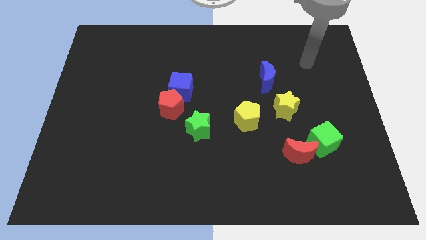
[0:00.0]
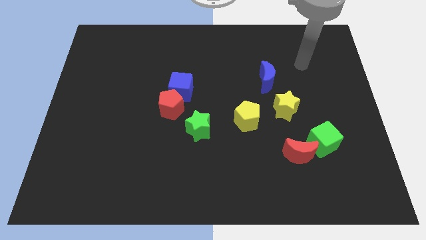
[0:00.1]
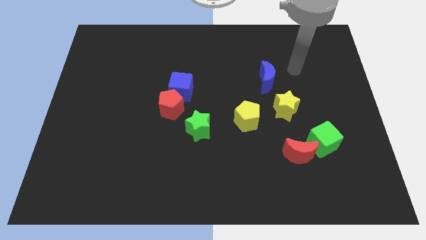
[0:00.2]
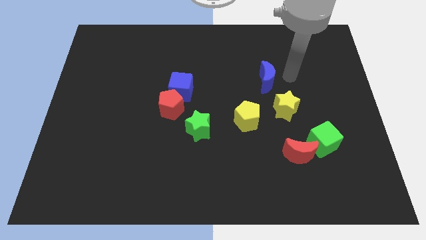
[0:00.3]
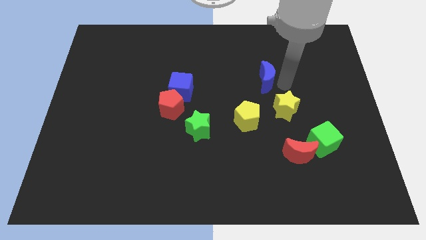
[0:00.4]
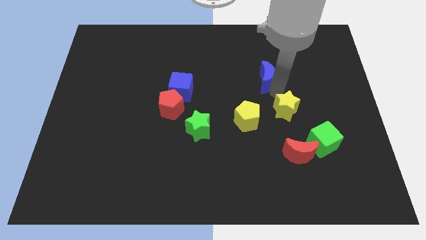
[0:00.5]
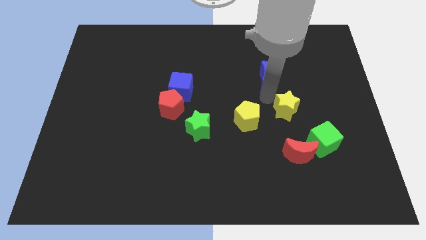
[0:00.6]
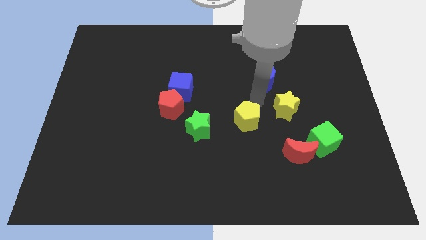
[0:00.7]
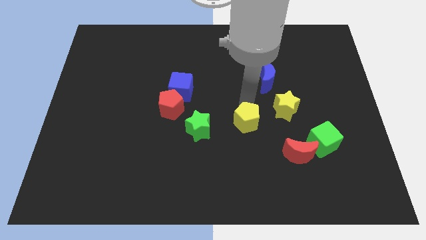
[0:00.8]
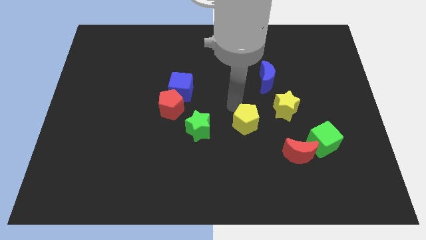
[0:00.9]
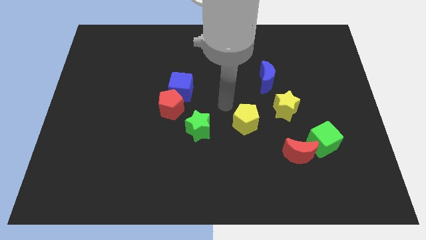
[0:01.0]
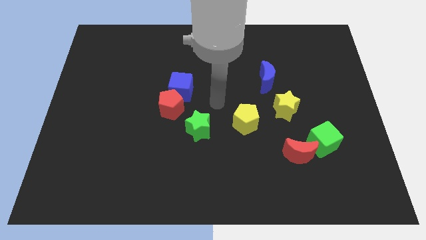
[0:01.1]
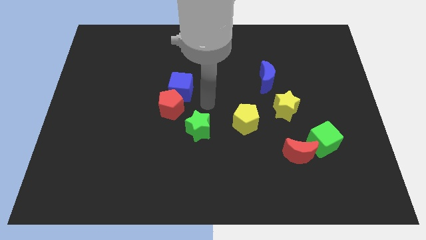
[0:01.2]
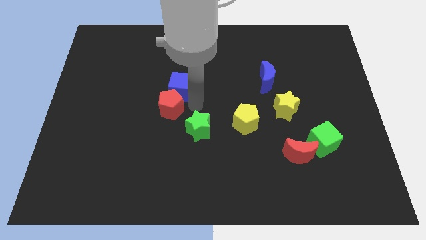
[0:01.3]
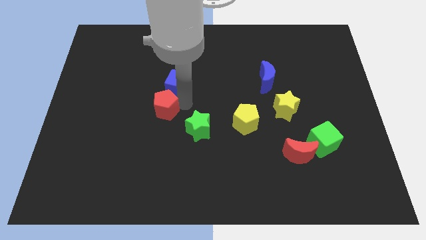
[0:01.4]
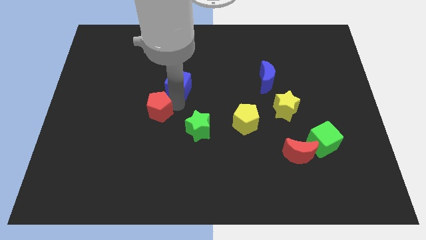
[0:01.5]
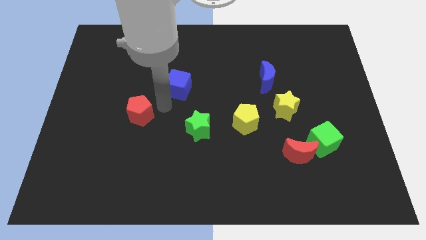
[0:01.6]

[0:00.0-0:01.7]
separate the blue cube from the red pentagon

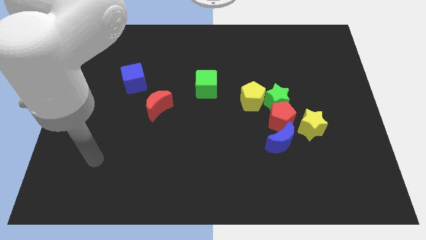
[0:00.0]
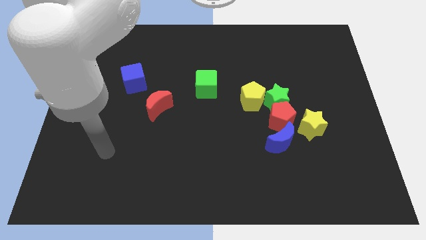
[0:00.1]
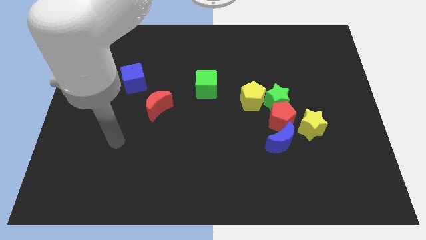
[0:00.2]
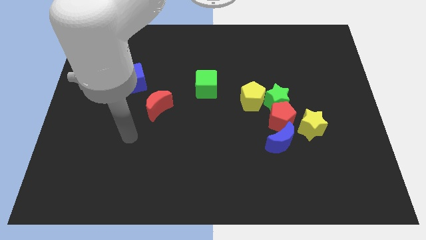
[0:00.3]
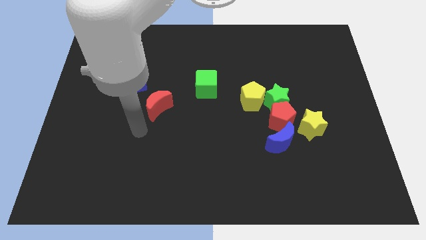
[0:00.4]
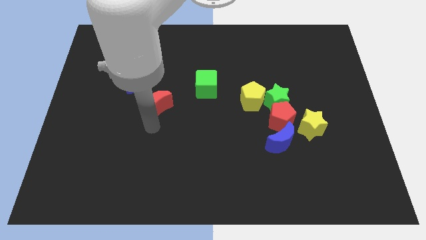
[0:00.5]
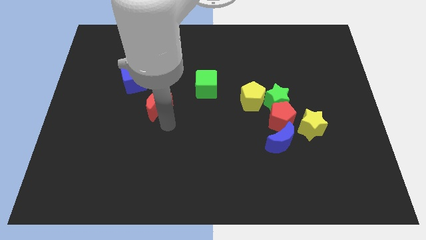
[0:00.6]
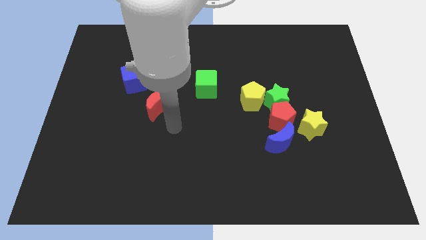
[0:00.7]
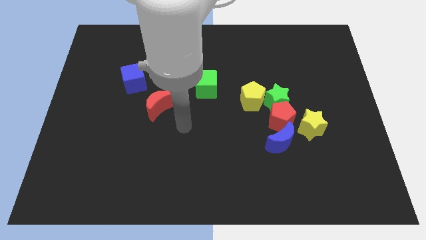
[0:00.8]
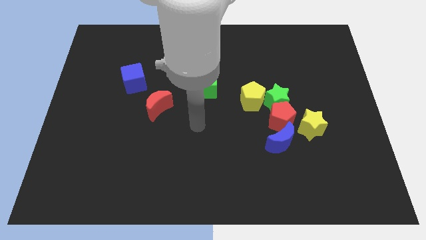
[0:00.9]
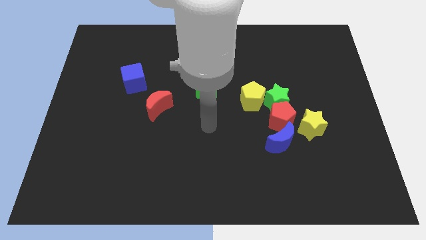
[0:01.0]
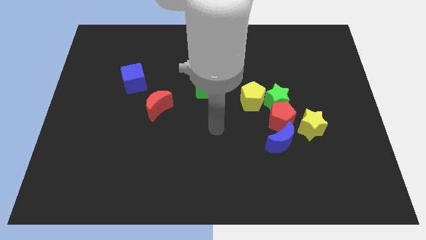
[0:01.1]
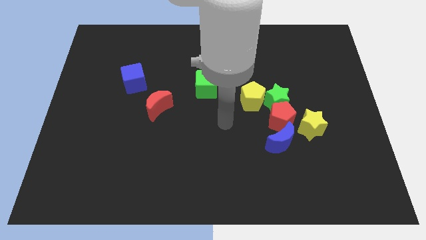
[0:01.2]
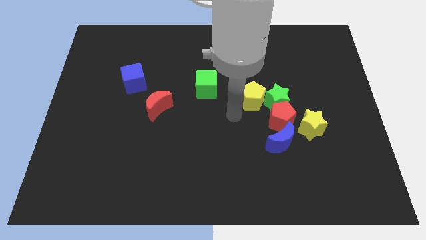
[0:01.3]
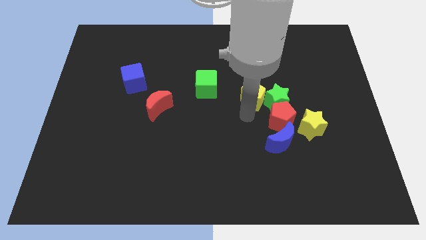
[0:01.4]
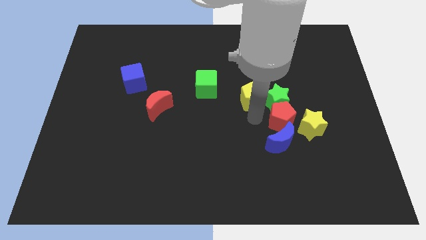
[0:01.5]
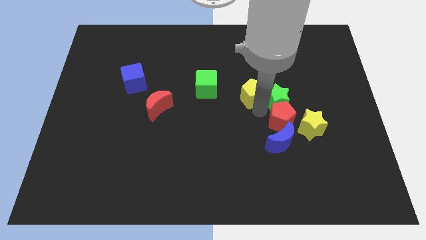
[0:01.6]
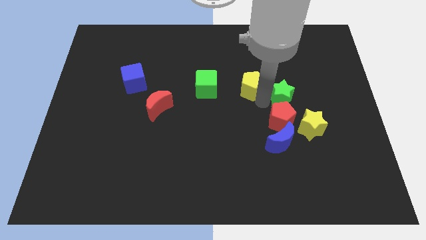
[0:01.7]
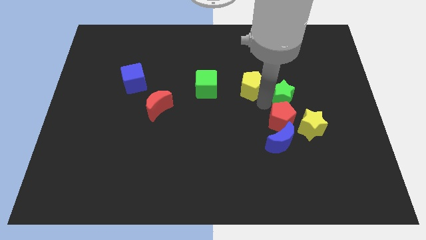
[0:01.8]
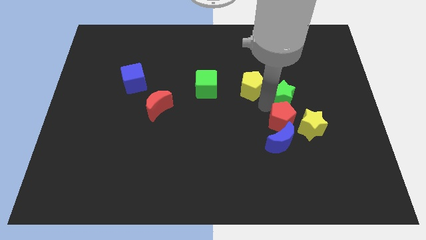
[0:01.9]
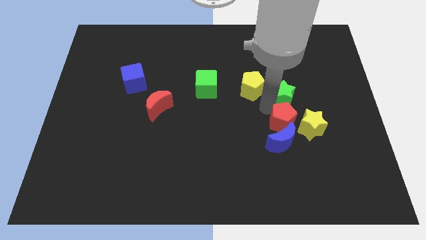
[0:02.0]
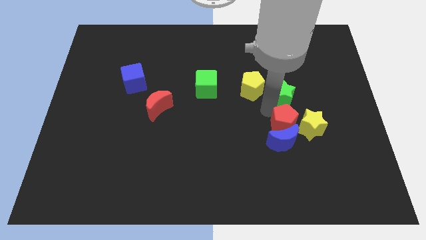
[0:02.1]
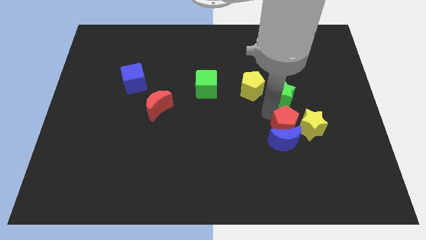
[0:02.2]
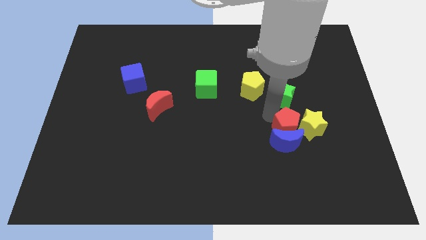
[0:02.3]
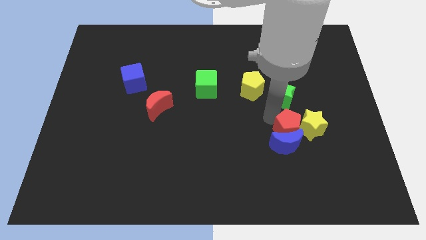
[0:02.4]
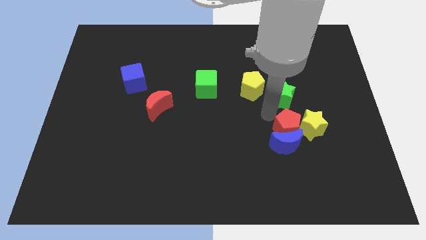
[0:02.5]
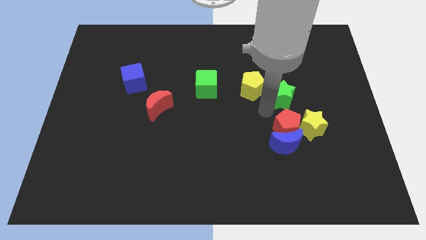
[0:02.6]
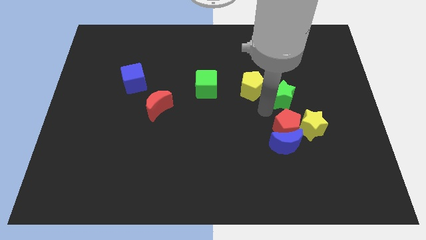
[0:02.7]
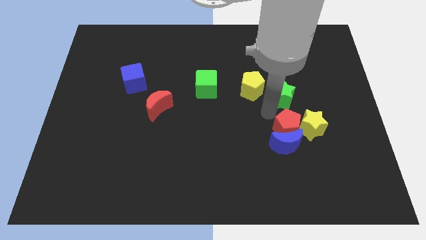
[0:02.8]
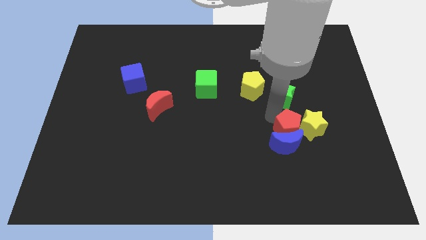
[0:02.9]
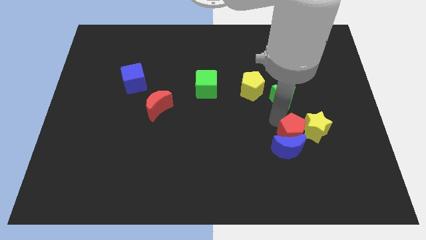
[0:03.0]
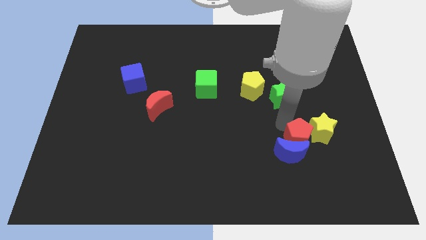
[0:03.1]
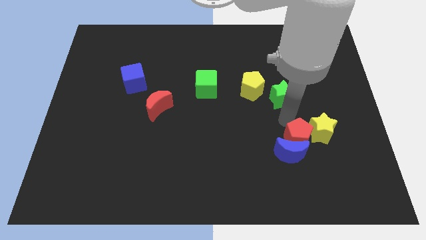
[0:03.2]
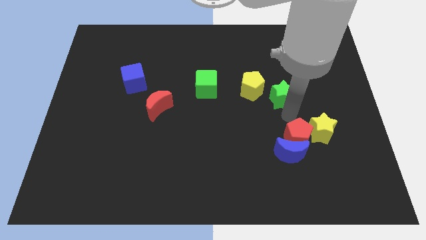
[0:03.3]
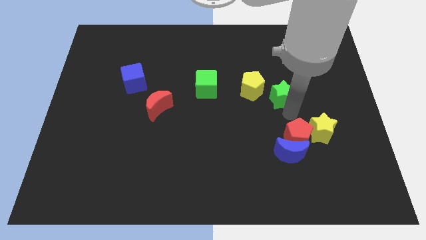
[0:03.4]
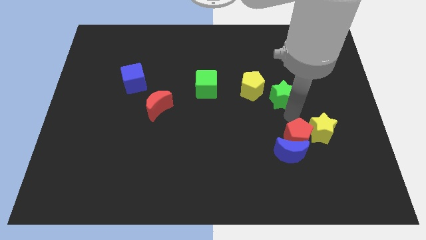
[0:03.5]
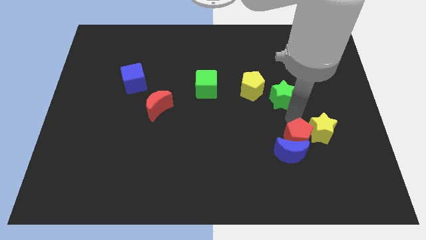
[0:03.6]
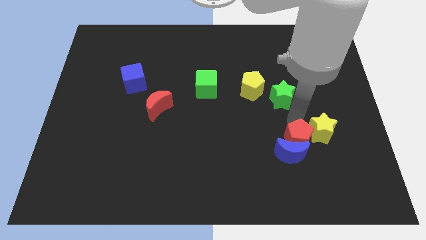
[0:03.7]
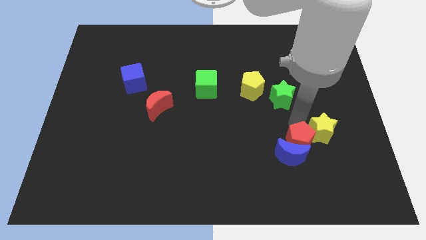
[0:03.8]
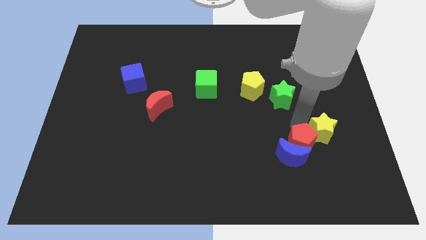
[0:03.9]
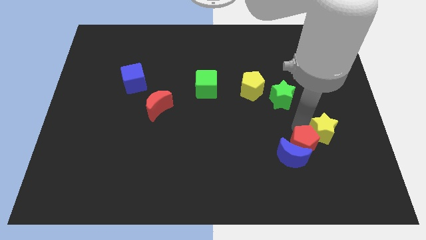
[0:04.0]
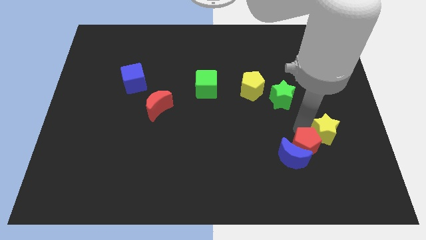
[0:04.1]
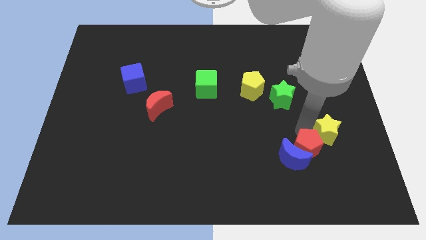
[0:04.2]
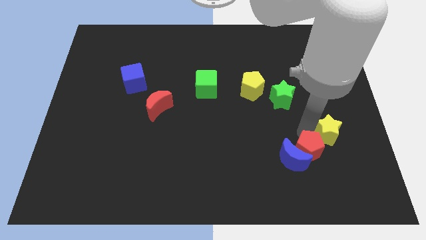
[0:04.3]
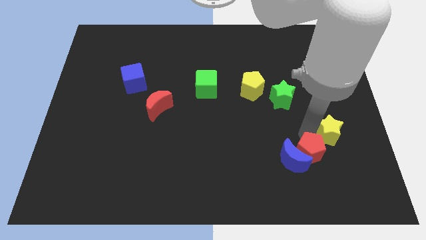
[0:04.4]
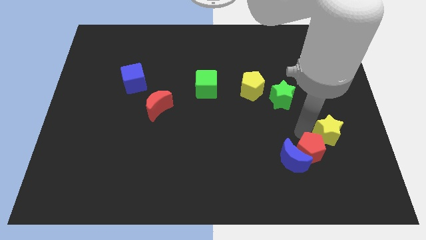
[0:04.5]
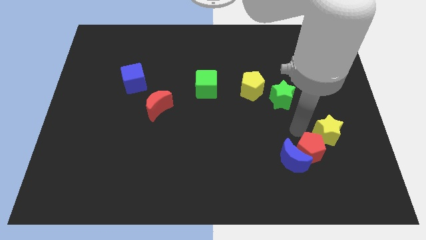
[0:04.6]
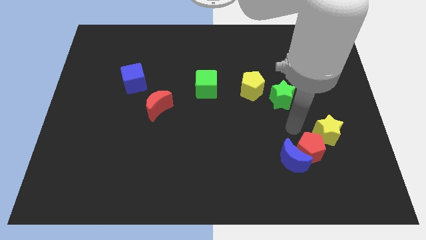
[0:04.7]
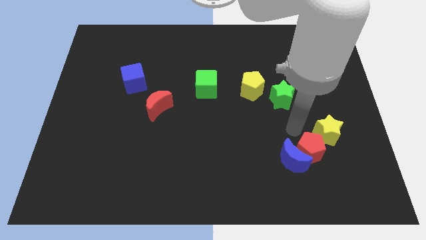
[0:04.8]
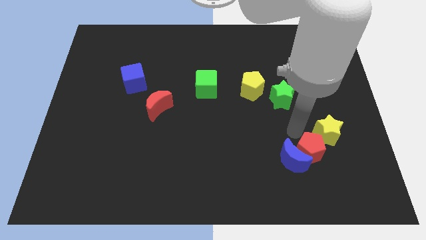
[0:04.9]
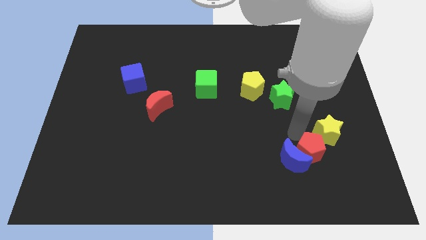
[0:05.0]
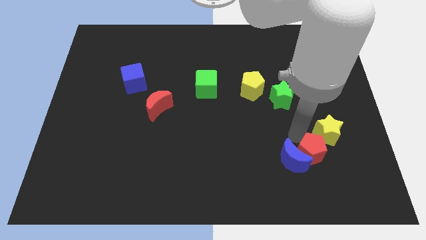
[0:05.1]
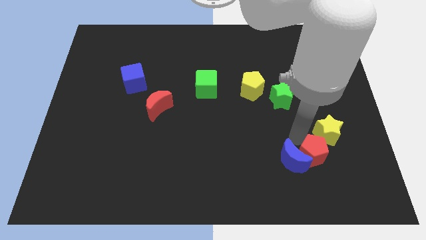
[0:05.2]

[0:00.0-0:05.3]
separate the red pentagon from the group

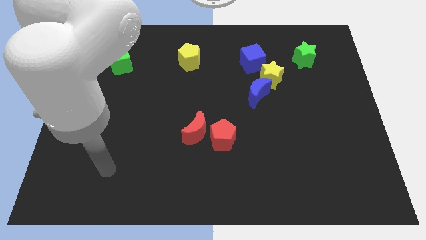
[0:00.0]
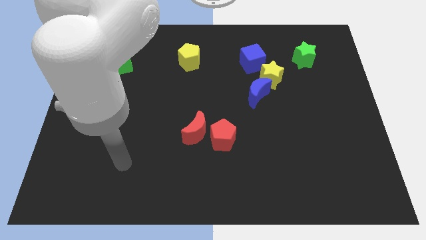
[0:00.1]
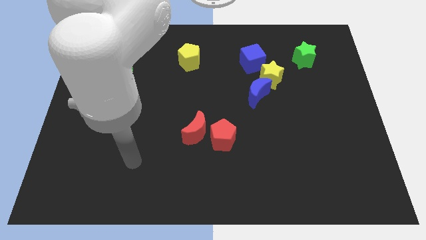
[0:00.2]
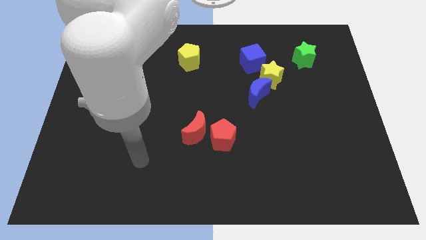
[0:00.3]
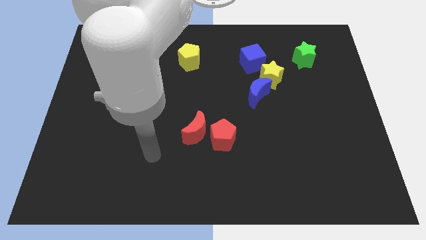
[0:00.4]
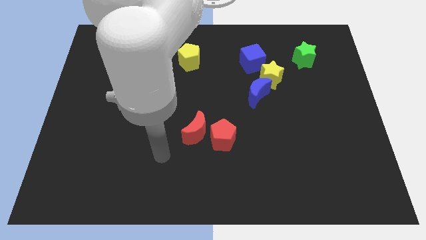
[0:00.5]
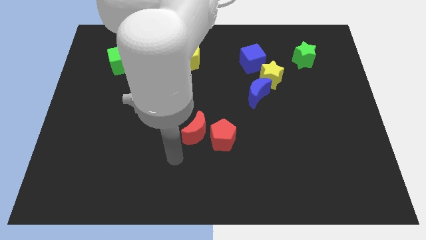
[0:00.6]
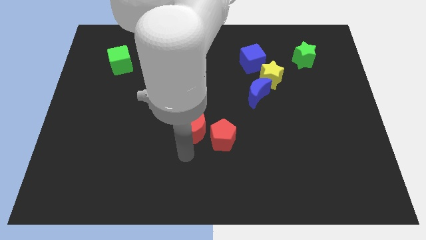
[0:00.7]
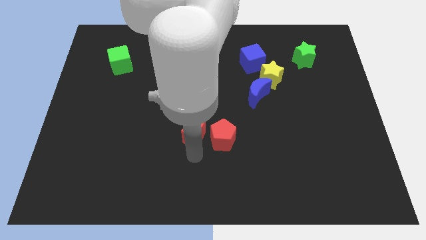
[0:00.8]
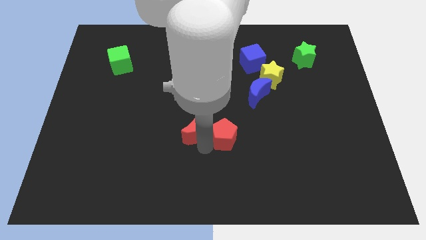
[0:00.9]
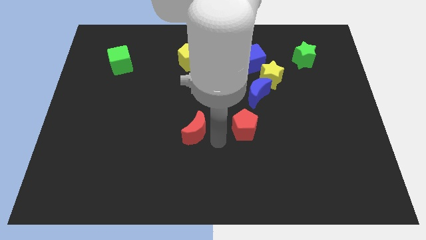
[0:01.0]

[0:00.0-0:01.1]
move the red moon away from the red pentagon

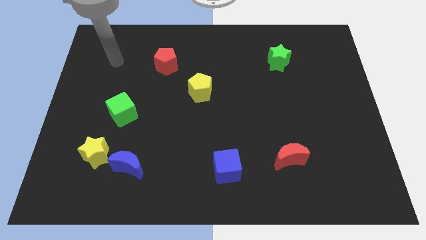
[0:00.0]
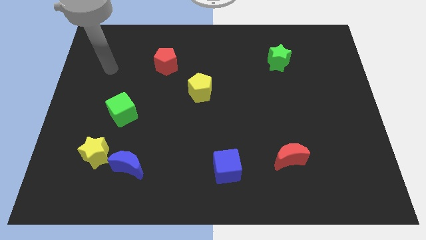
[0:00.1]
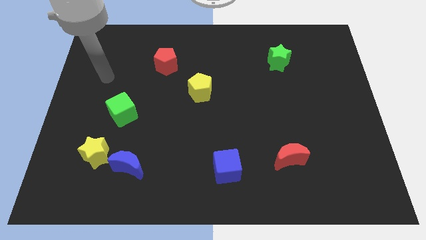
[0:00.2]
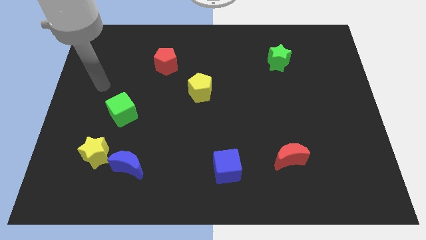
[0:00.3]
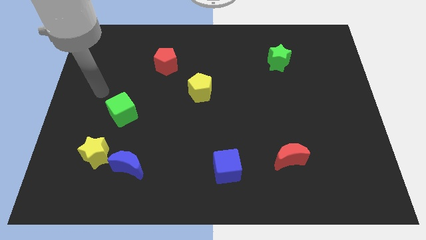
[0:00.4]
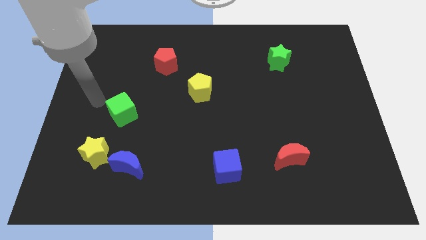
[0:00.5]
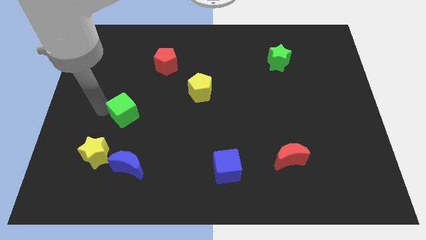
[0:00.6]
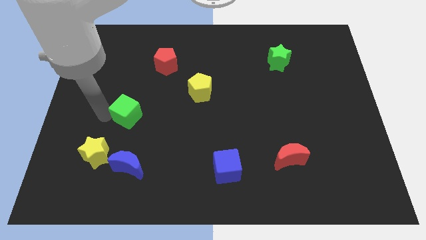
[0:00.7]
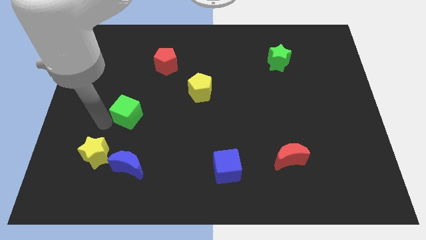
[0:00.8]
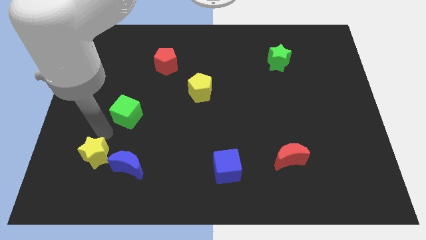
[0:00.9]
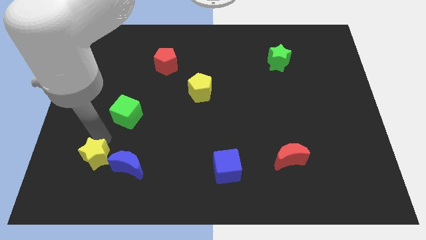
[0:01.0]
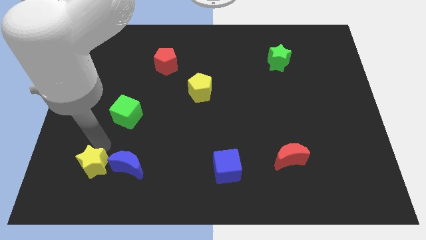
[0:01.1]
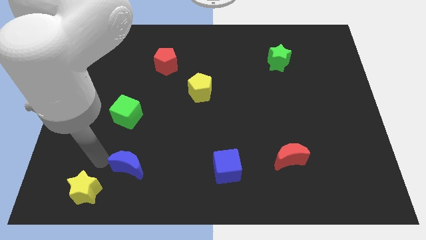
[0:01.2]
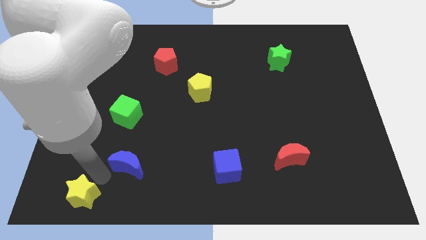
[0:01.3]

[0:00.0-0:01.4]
separate the blue moon from the yellow star
